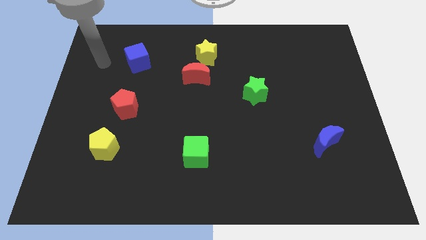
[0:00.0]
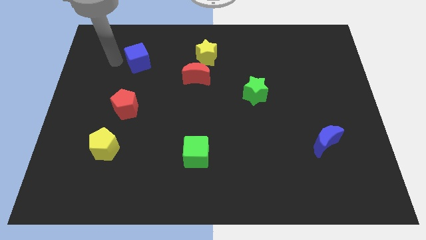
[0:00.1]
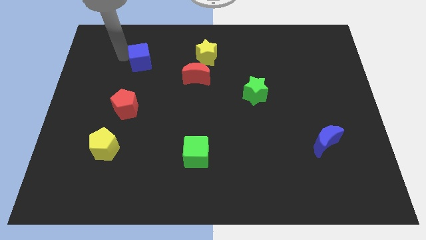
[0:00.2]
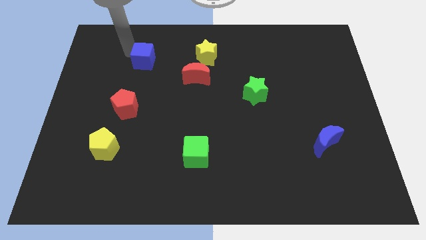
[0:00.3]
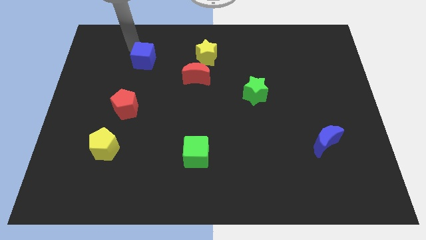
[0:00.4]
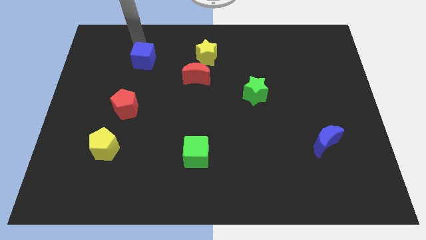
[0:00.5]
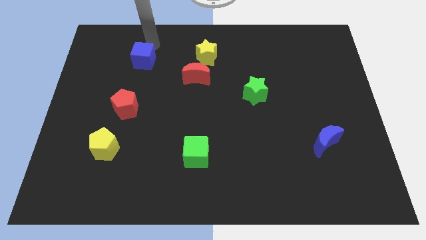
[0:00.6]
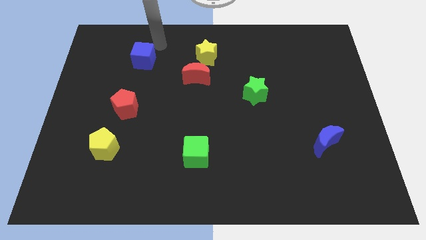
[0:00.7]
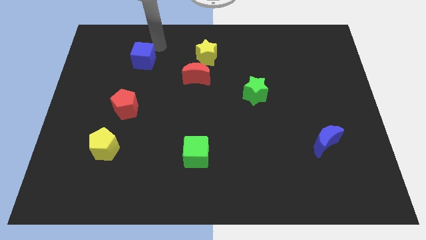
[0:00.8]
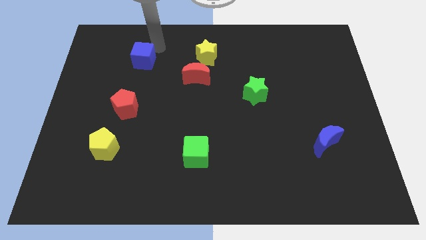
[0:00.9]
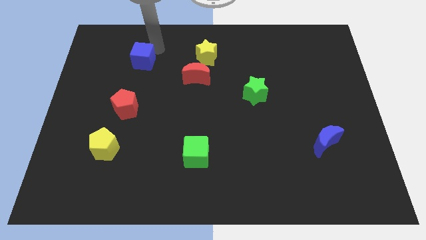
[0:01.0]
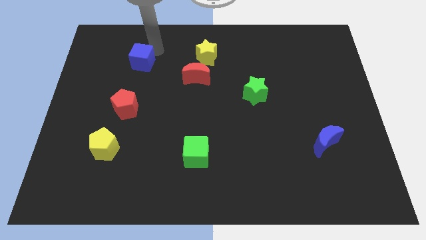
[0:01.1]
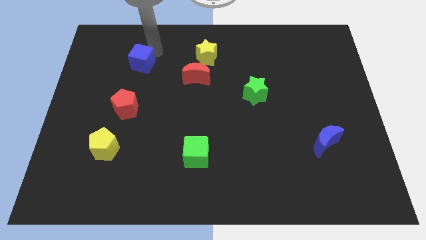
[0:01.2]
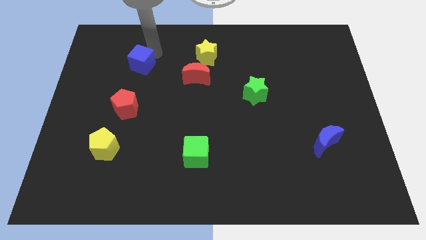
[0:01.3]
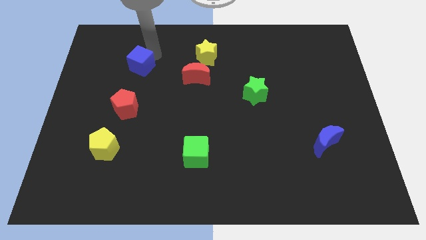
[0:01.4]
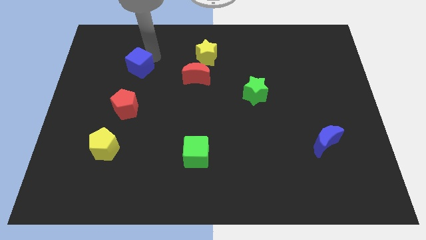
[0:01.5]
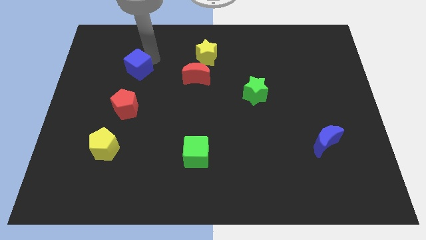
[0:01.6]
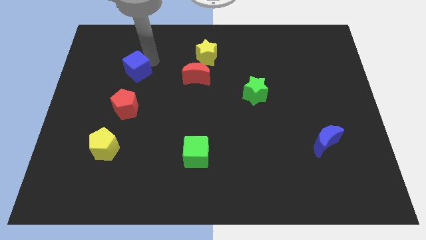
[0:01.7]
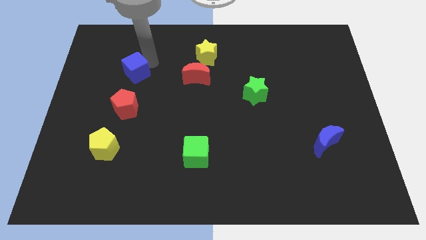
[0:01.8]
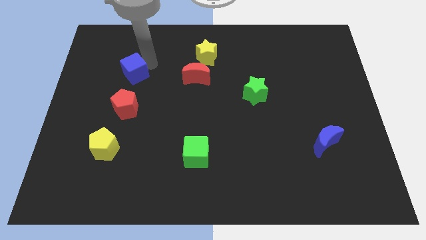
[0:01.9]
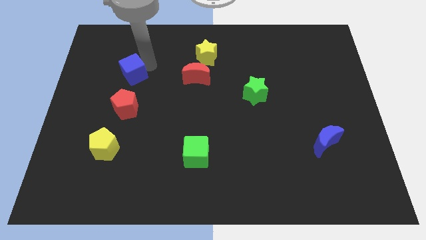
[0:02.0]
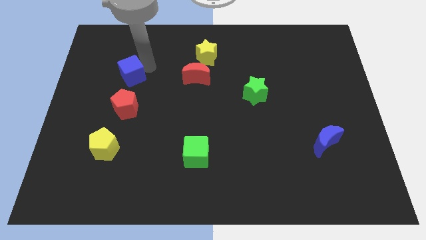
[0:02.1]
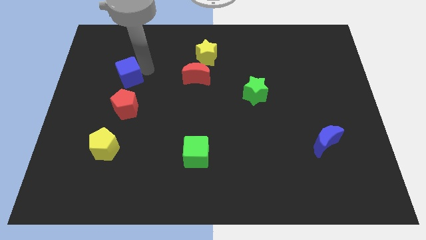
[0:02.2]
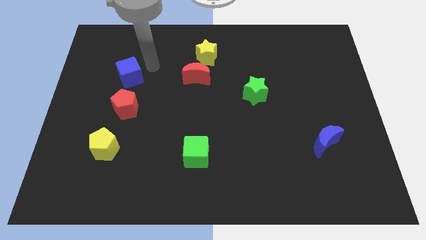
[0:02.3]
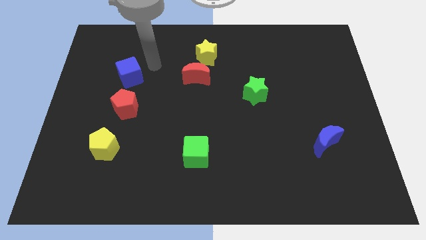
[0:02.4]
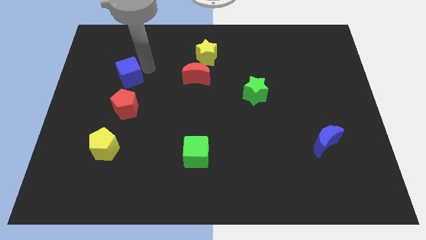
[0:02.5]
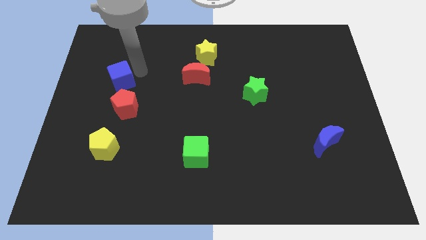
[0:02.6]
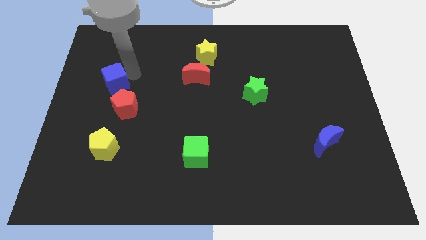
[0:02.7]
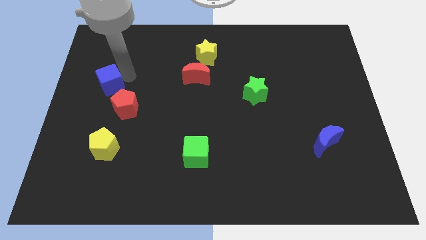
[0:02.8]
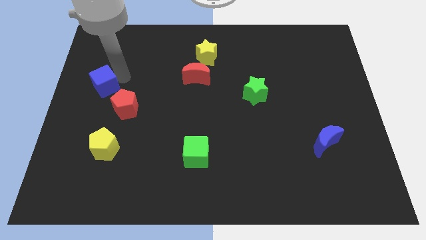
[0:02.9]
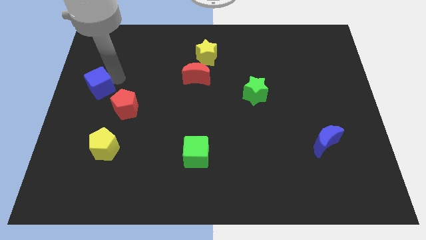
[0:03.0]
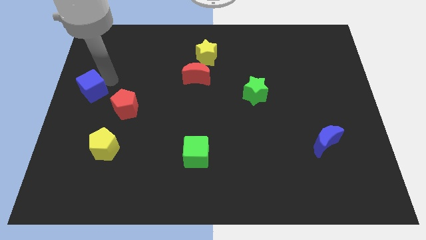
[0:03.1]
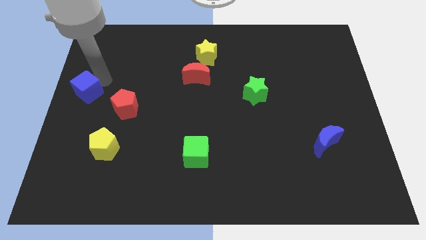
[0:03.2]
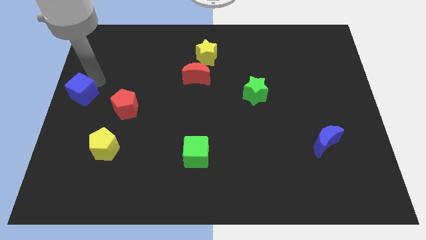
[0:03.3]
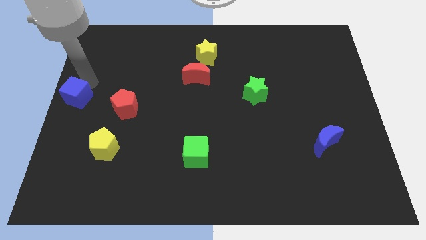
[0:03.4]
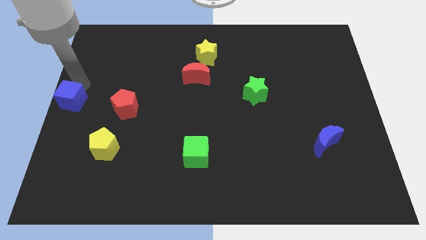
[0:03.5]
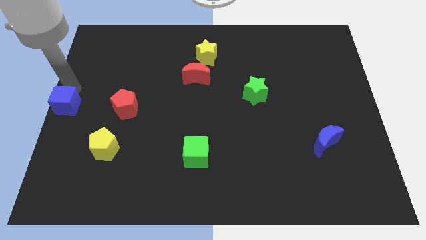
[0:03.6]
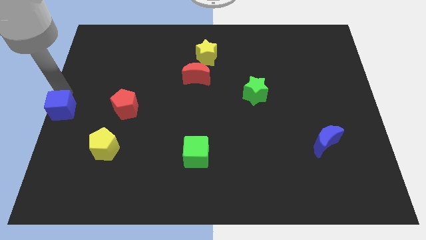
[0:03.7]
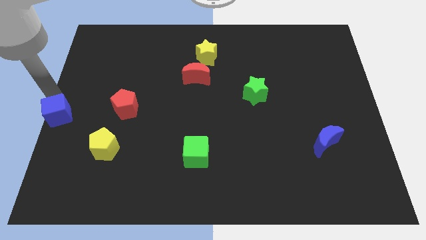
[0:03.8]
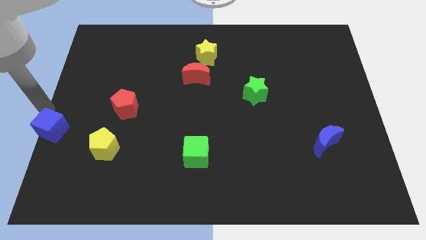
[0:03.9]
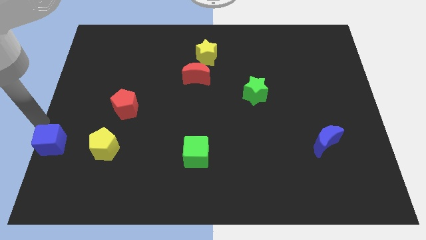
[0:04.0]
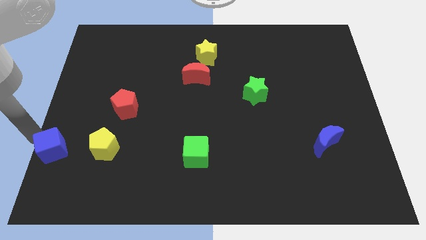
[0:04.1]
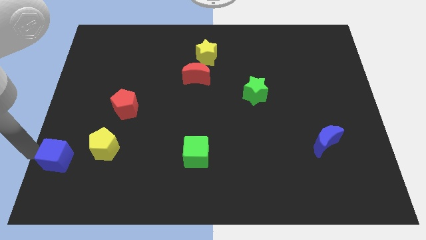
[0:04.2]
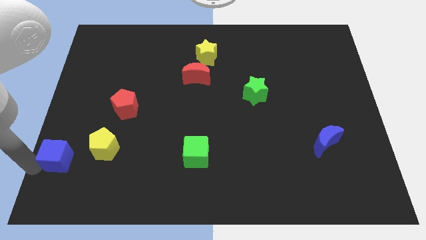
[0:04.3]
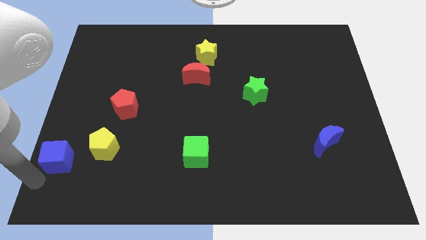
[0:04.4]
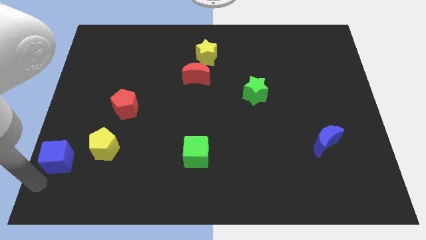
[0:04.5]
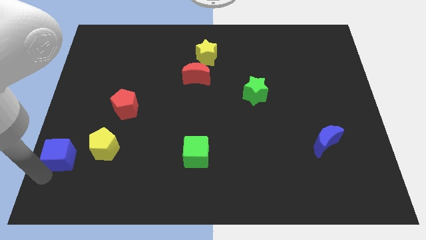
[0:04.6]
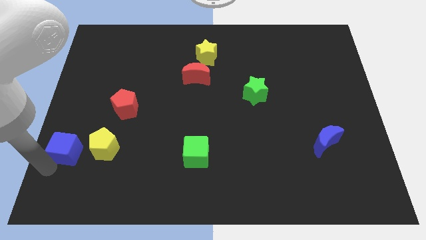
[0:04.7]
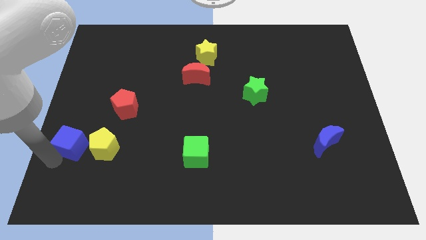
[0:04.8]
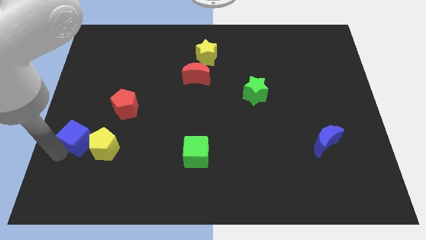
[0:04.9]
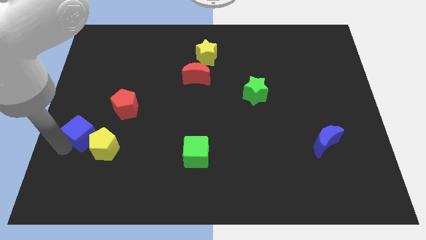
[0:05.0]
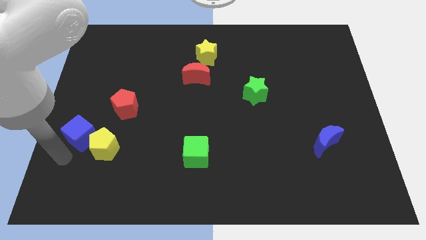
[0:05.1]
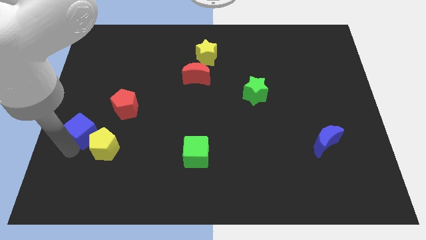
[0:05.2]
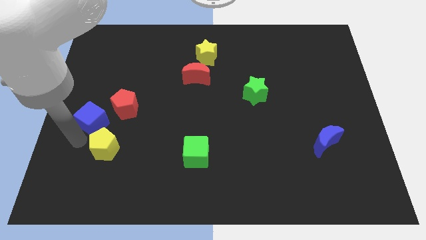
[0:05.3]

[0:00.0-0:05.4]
slide the blue cube to the top of the yellow pentagon

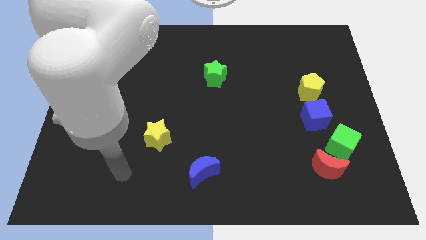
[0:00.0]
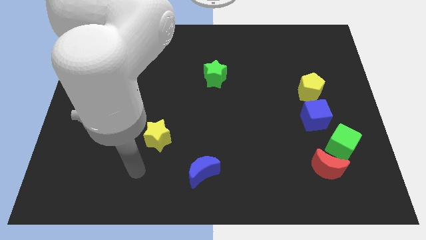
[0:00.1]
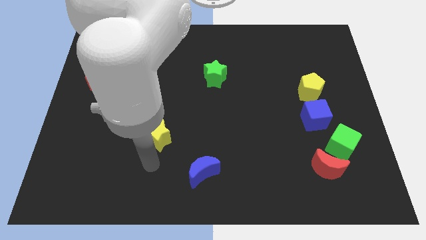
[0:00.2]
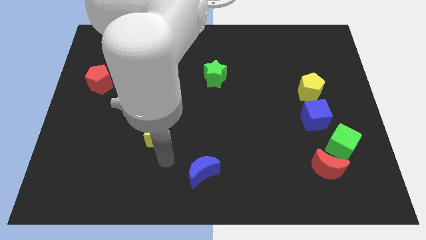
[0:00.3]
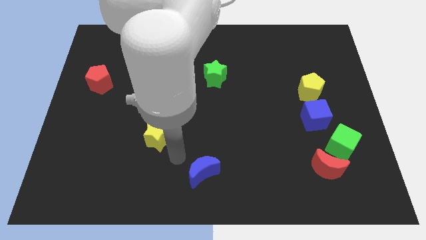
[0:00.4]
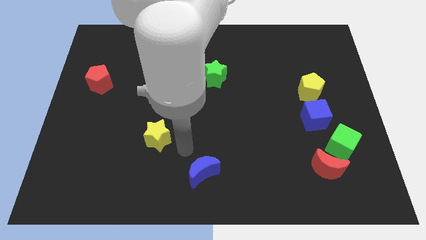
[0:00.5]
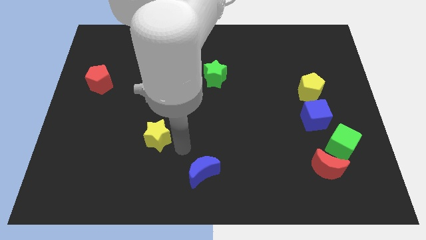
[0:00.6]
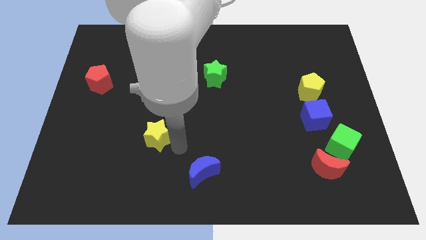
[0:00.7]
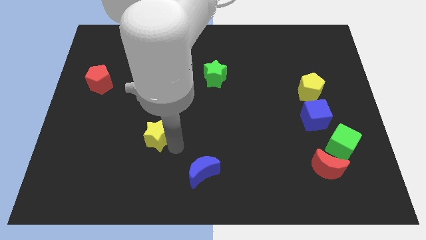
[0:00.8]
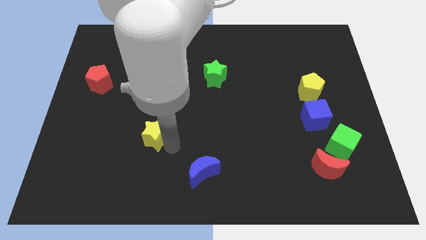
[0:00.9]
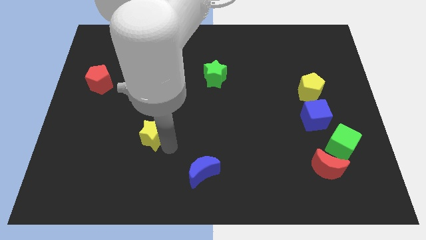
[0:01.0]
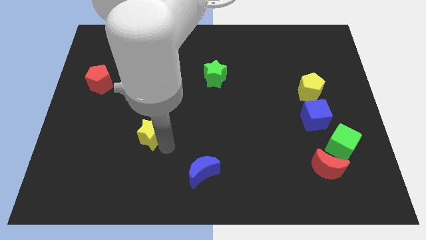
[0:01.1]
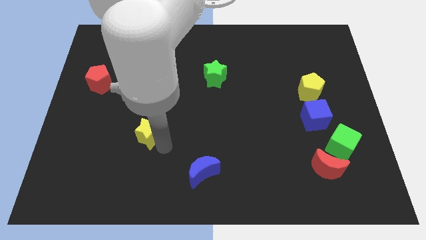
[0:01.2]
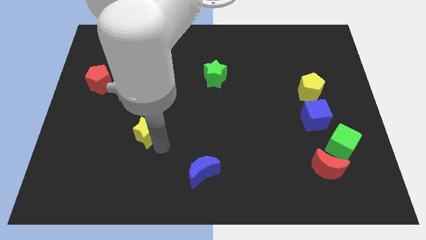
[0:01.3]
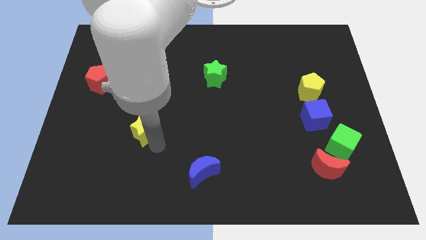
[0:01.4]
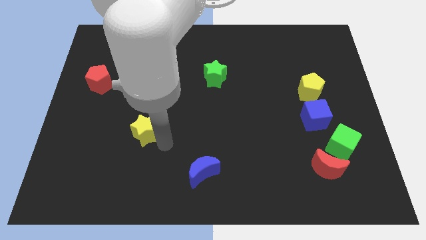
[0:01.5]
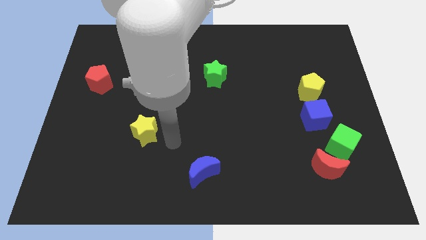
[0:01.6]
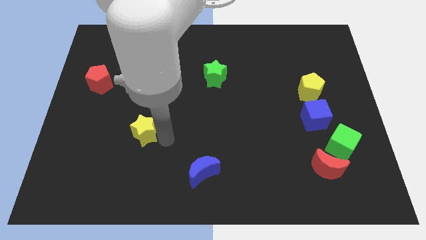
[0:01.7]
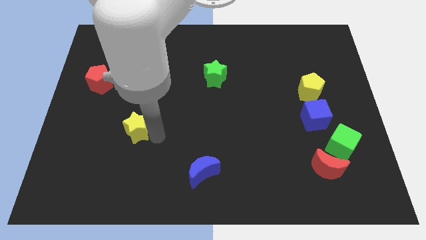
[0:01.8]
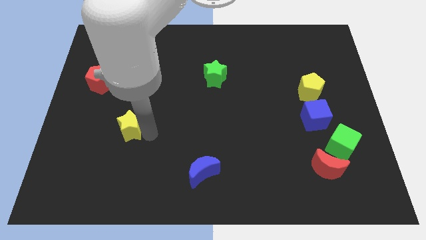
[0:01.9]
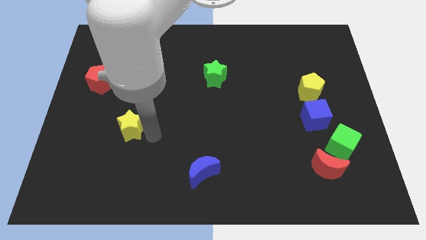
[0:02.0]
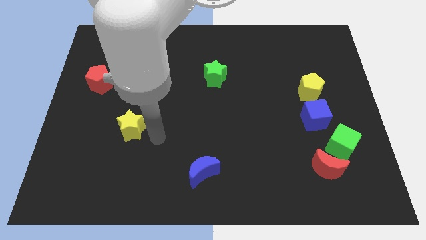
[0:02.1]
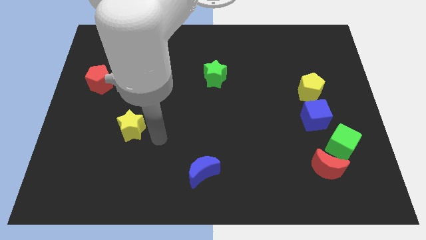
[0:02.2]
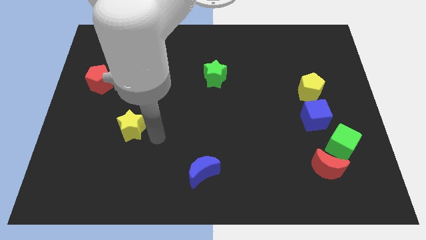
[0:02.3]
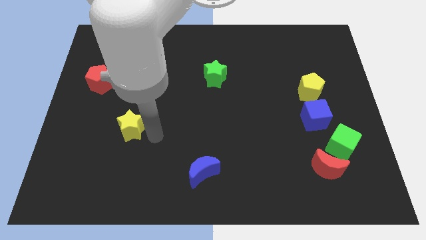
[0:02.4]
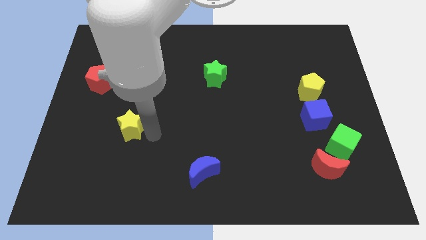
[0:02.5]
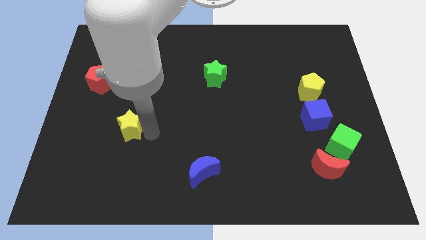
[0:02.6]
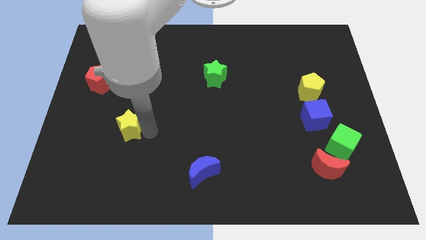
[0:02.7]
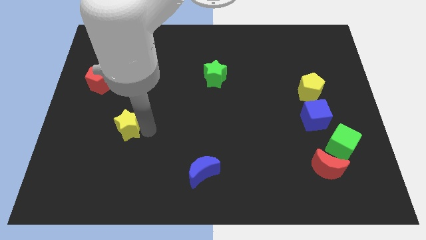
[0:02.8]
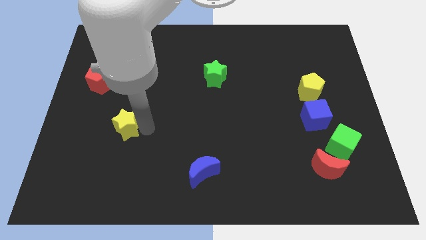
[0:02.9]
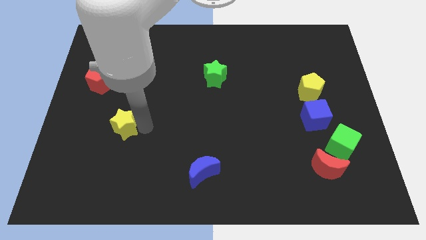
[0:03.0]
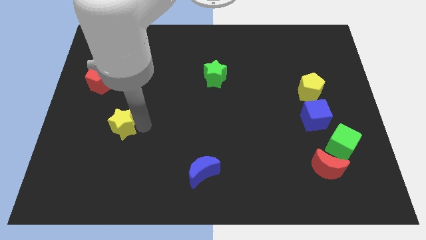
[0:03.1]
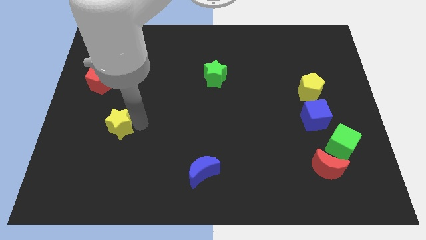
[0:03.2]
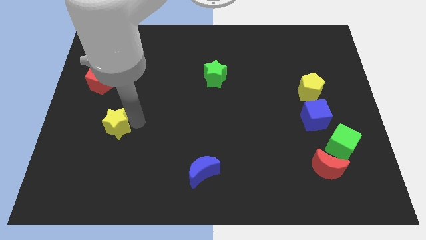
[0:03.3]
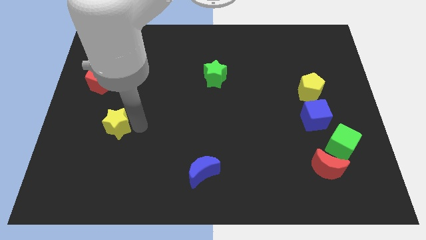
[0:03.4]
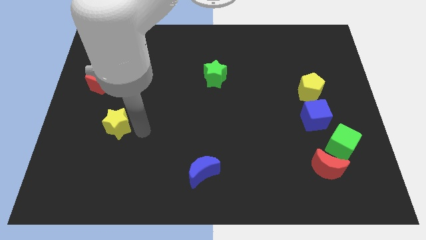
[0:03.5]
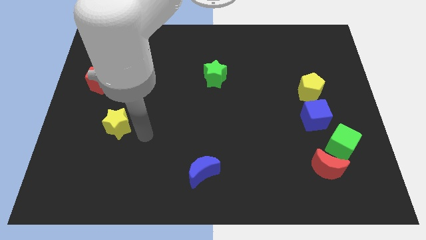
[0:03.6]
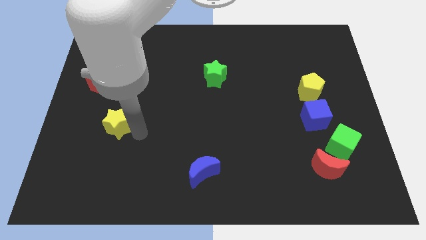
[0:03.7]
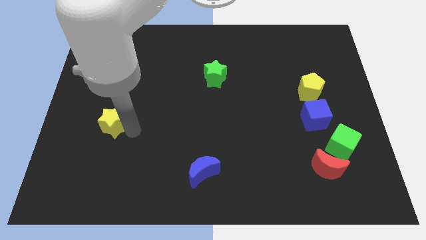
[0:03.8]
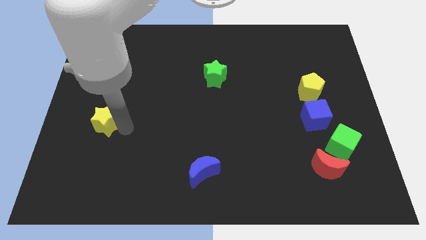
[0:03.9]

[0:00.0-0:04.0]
move the yellow star to the bottom side of the red pentagon
